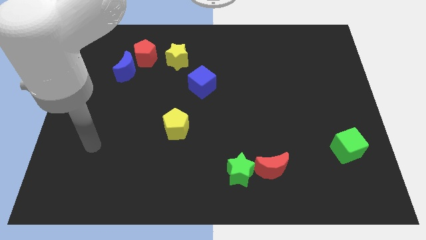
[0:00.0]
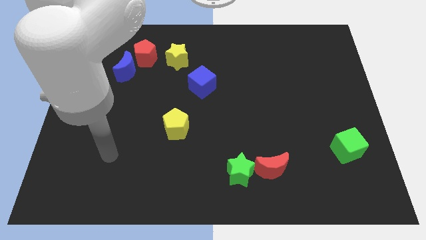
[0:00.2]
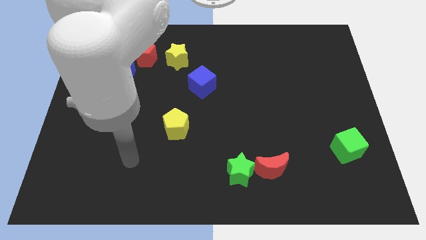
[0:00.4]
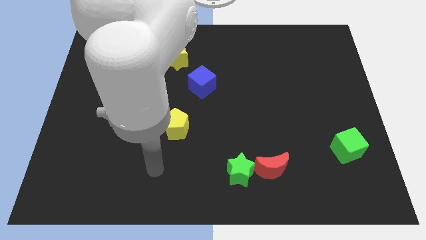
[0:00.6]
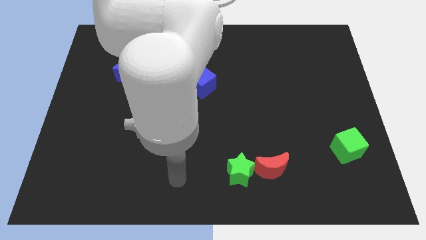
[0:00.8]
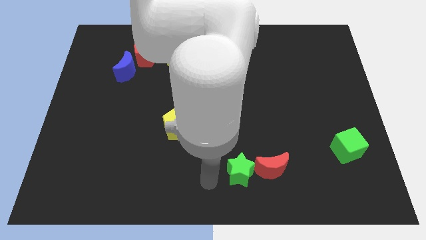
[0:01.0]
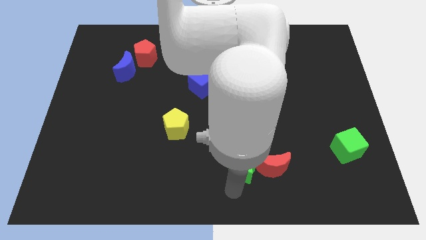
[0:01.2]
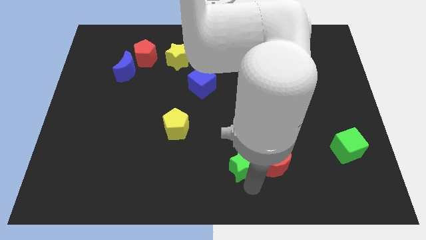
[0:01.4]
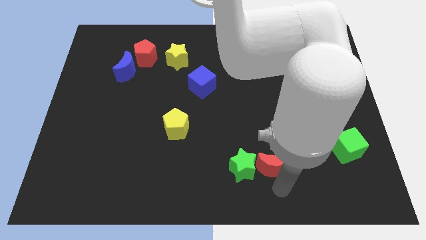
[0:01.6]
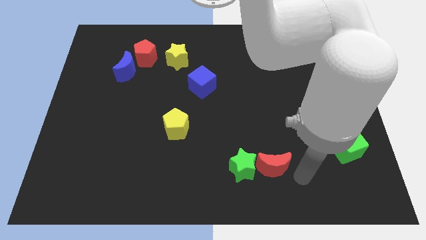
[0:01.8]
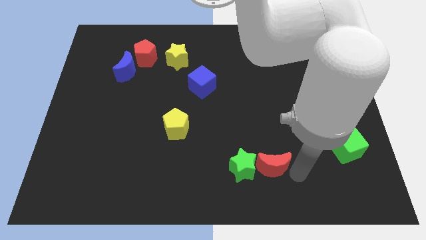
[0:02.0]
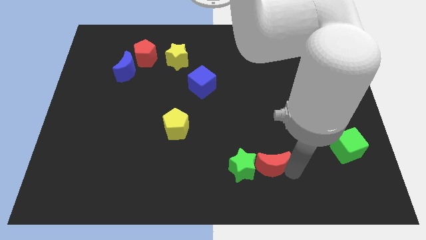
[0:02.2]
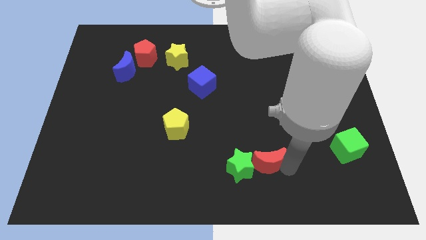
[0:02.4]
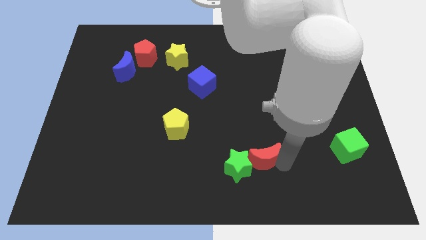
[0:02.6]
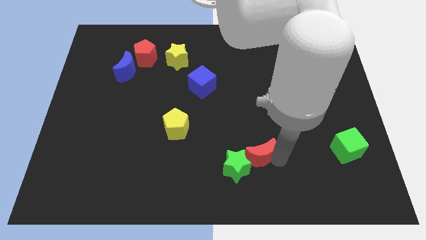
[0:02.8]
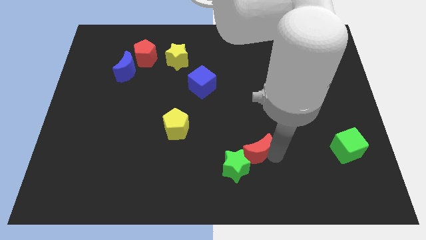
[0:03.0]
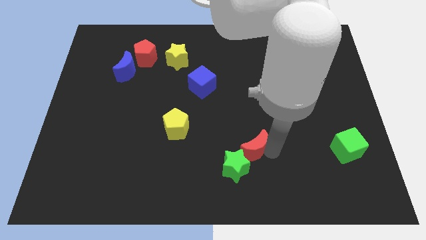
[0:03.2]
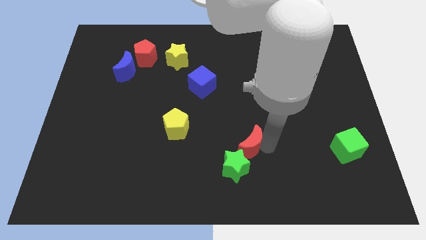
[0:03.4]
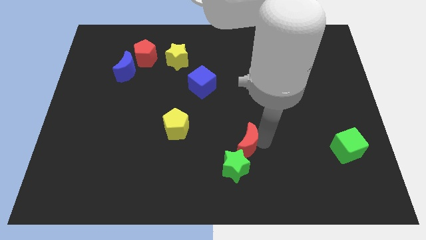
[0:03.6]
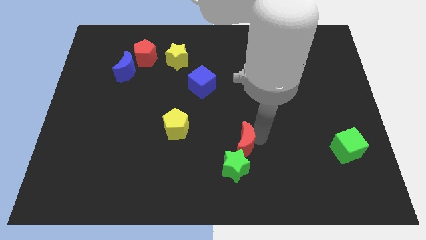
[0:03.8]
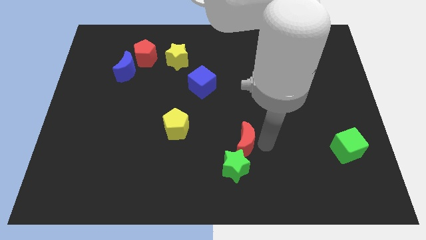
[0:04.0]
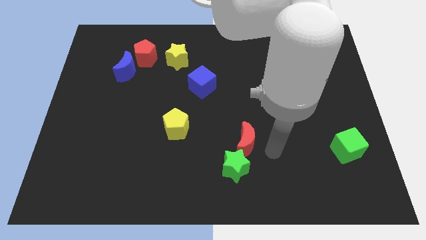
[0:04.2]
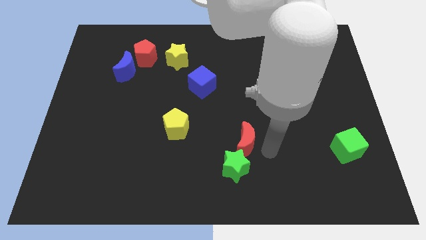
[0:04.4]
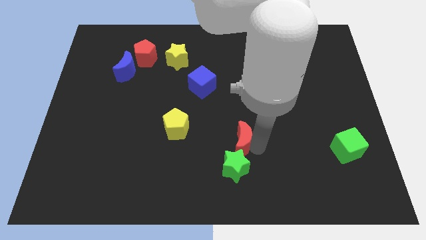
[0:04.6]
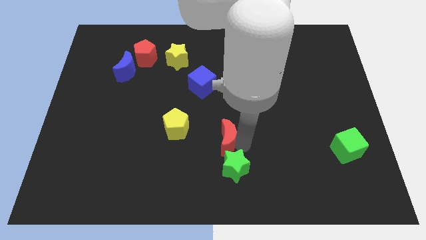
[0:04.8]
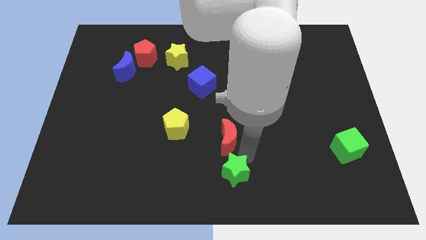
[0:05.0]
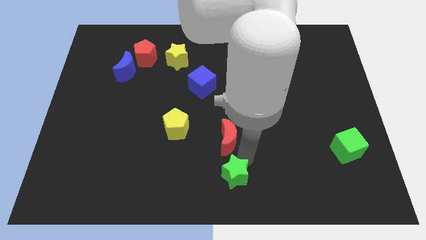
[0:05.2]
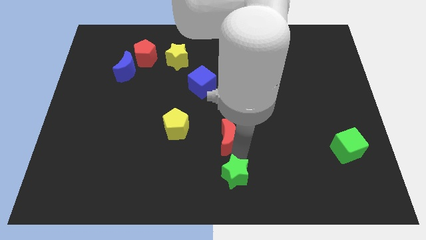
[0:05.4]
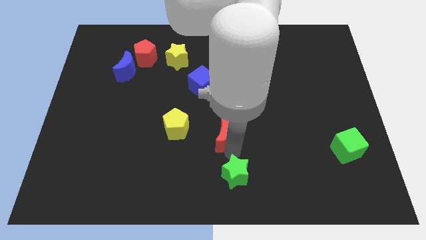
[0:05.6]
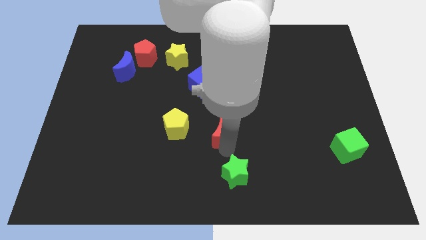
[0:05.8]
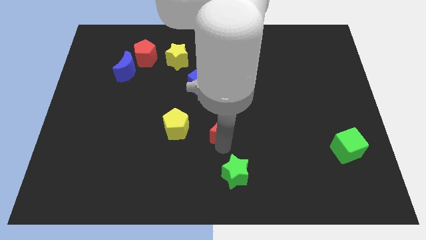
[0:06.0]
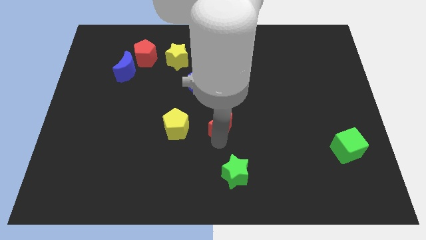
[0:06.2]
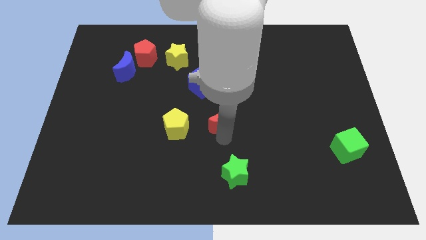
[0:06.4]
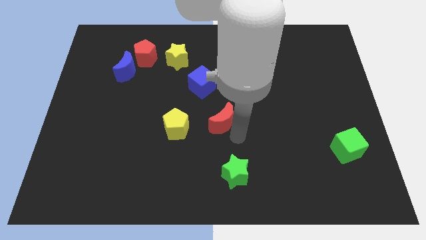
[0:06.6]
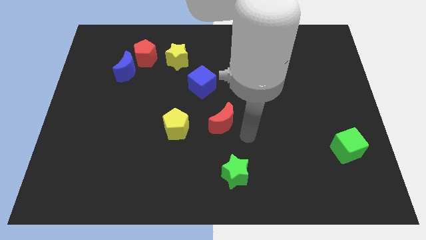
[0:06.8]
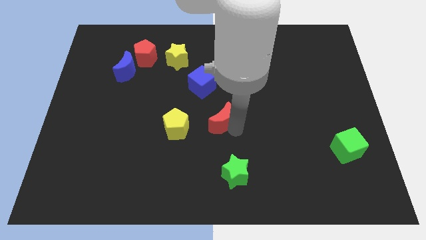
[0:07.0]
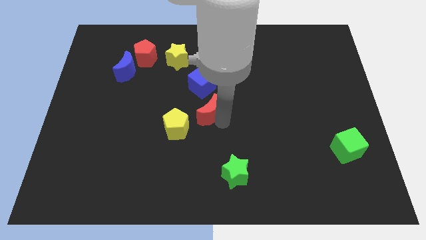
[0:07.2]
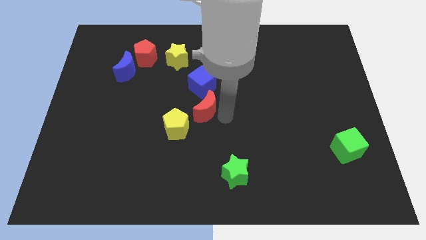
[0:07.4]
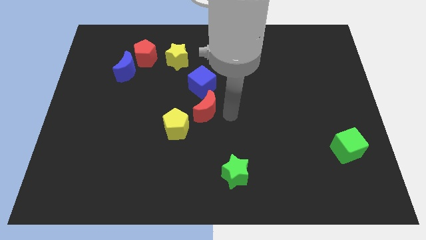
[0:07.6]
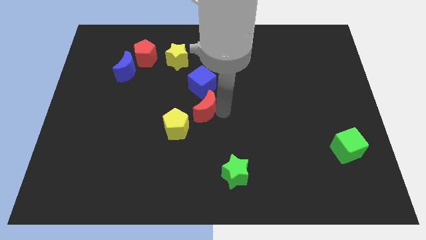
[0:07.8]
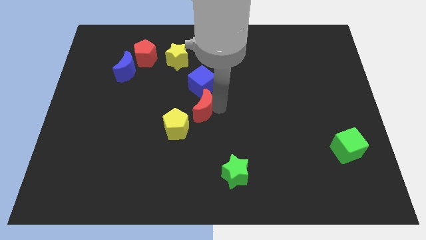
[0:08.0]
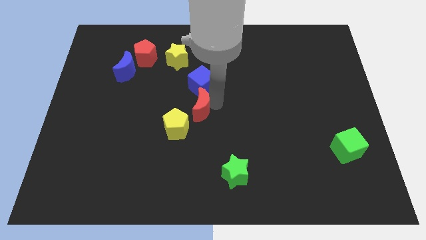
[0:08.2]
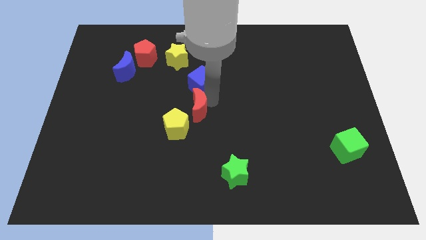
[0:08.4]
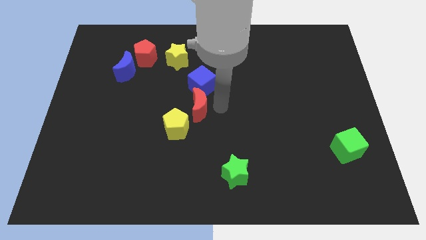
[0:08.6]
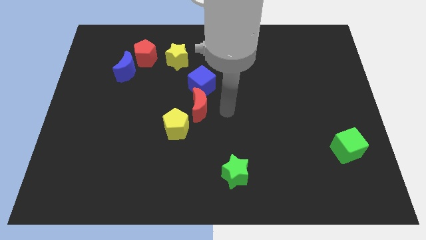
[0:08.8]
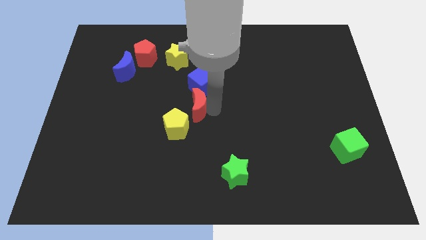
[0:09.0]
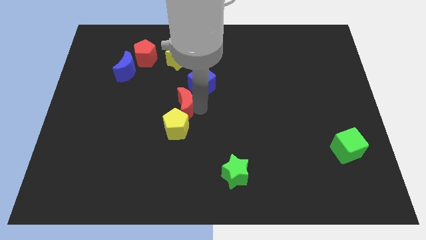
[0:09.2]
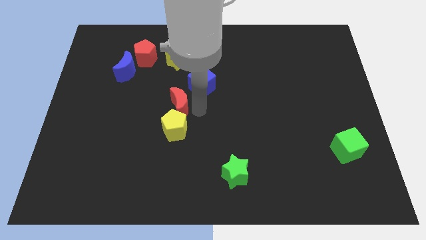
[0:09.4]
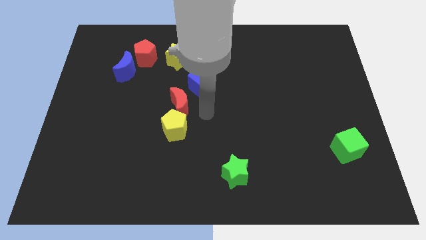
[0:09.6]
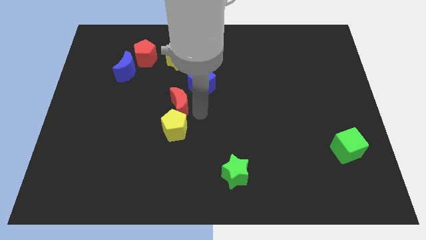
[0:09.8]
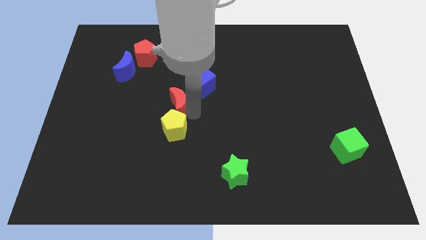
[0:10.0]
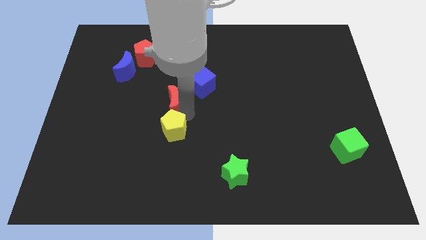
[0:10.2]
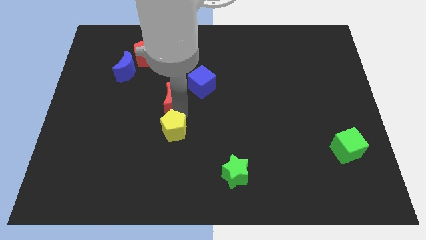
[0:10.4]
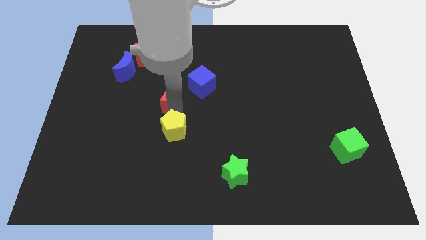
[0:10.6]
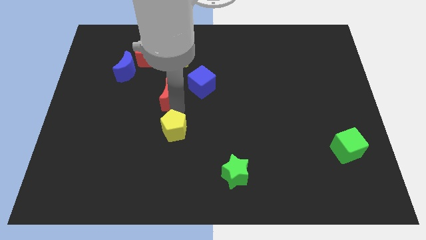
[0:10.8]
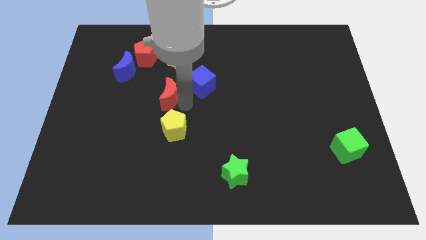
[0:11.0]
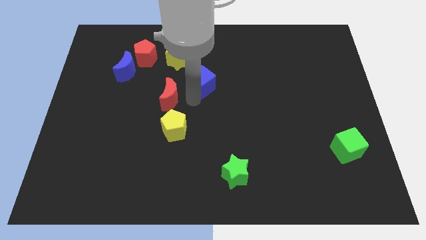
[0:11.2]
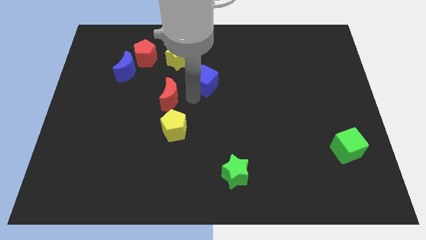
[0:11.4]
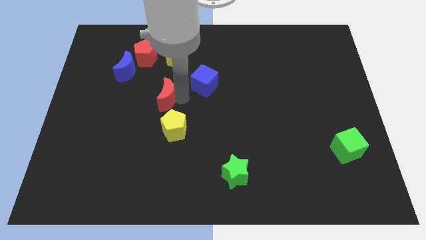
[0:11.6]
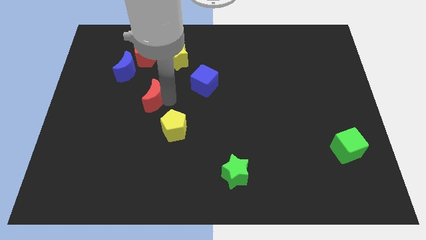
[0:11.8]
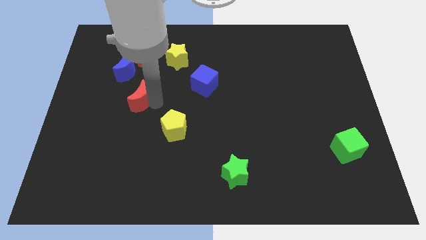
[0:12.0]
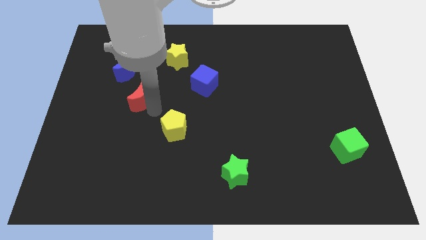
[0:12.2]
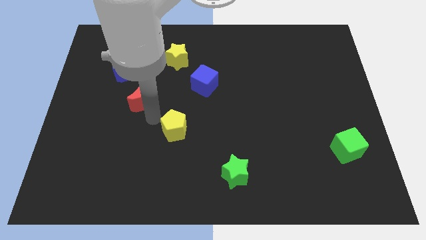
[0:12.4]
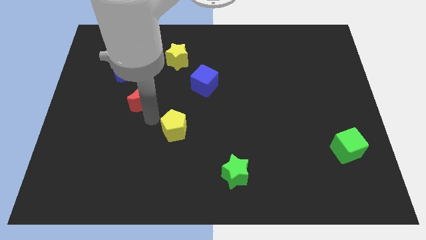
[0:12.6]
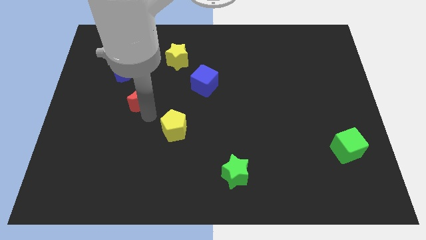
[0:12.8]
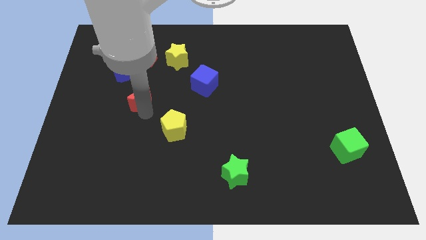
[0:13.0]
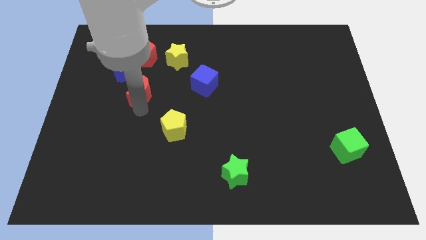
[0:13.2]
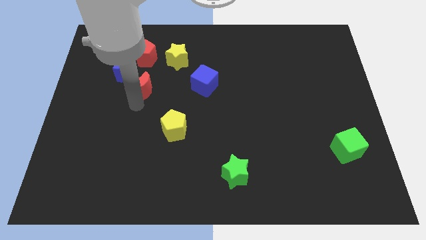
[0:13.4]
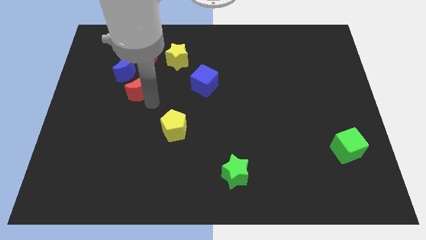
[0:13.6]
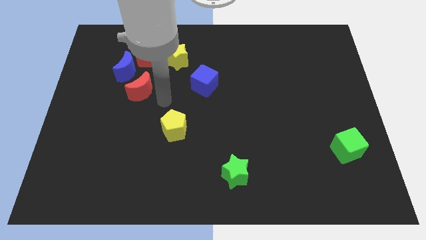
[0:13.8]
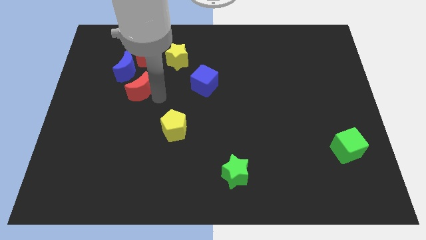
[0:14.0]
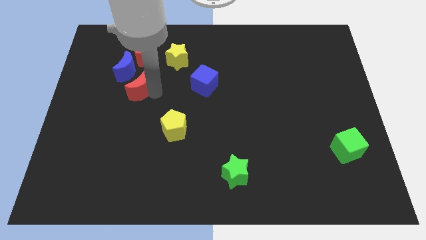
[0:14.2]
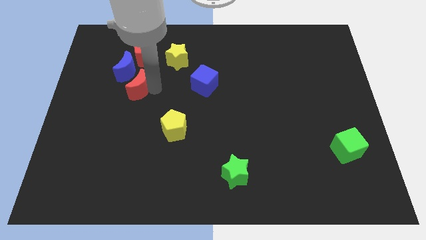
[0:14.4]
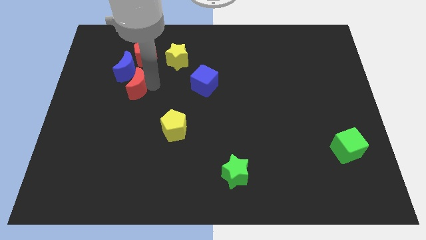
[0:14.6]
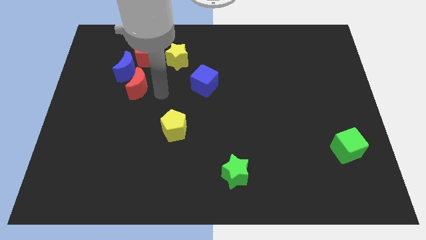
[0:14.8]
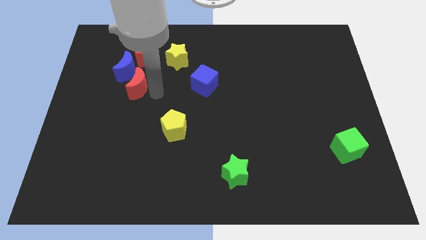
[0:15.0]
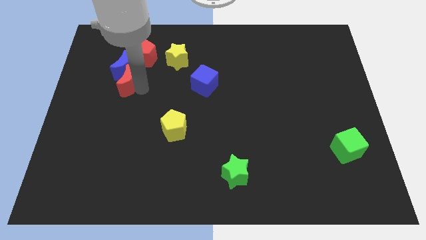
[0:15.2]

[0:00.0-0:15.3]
move the red moon to the bottom left side of the red pentagon

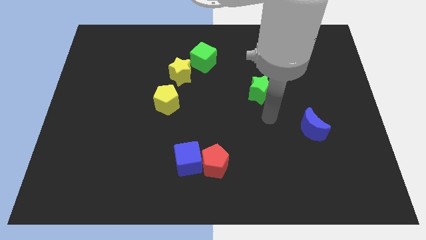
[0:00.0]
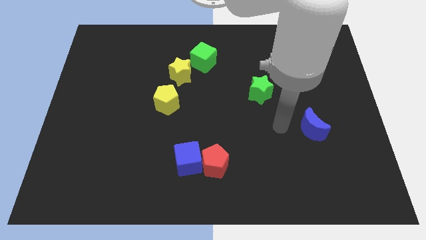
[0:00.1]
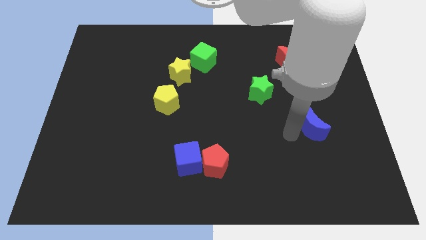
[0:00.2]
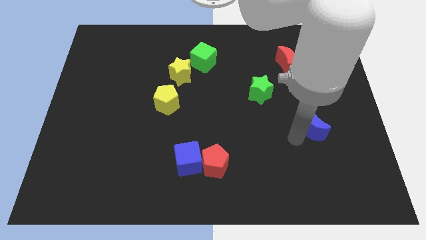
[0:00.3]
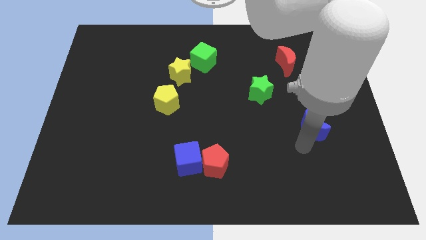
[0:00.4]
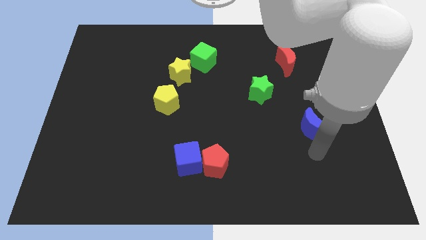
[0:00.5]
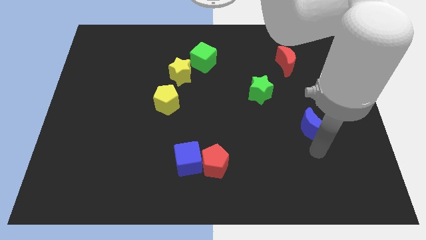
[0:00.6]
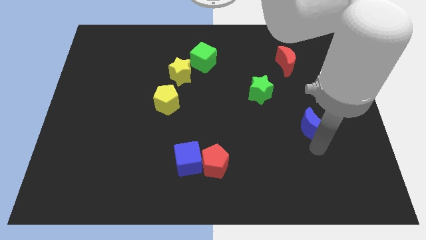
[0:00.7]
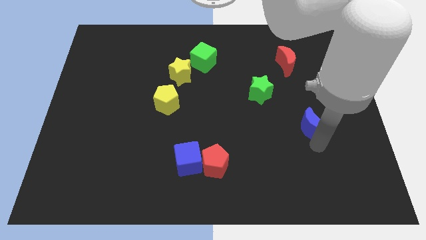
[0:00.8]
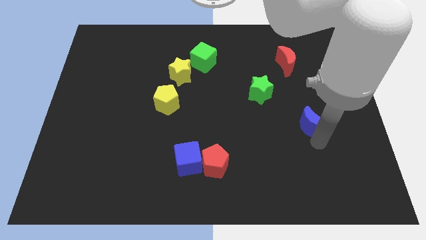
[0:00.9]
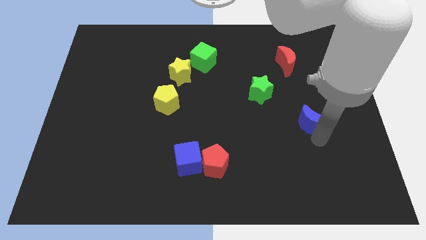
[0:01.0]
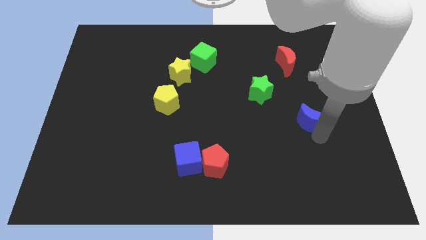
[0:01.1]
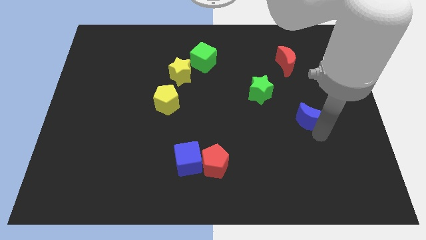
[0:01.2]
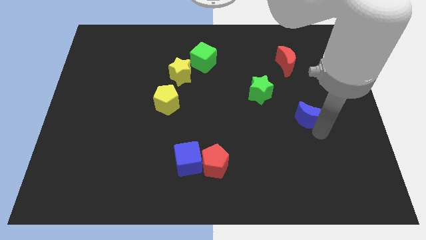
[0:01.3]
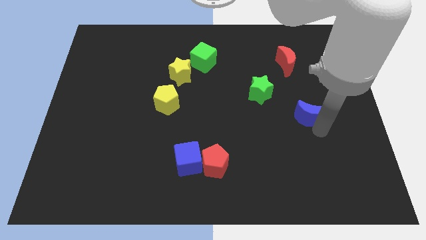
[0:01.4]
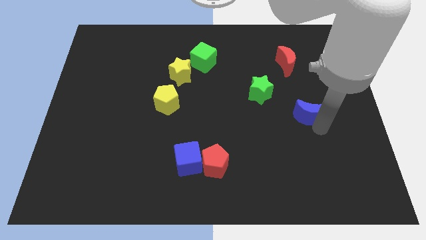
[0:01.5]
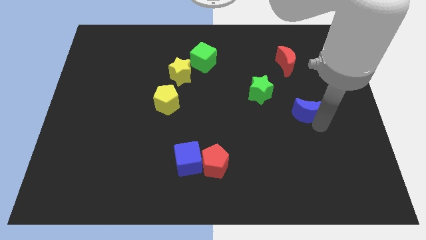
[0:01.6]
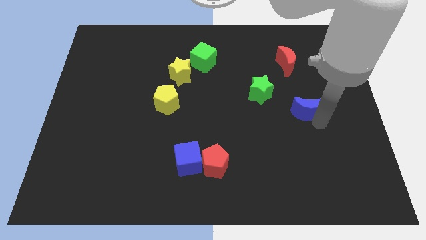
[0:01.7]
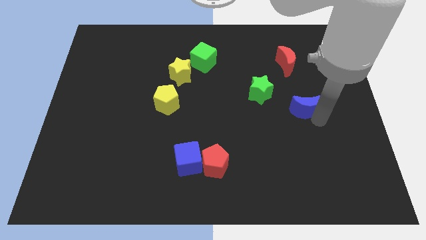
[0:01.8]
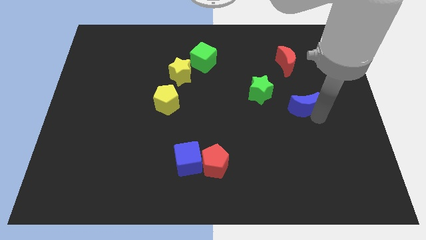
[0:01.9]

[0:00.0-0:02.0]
put the blue moon to the right of the green star
